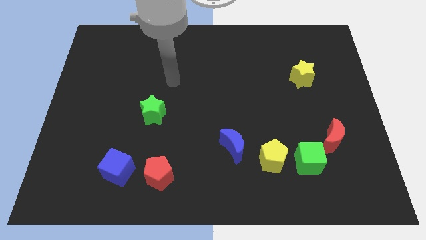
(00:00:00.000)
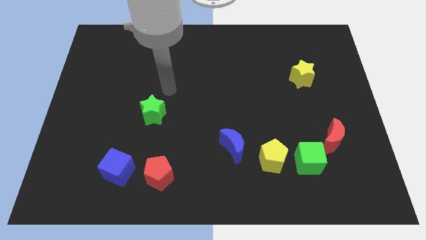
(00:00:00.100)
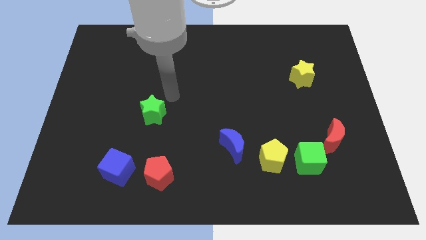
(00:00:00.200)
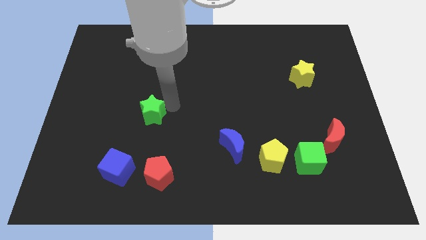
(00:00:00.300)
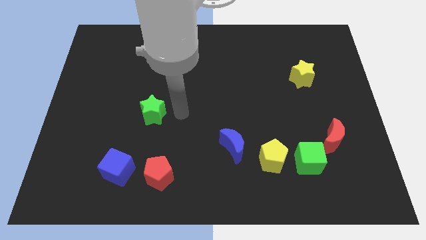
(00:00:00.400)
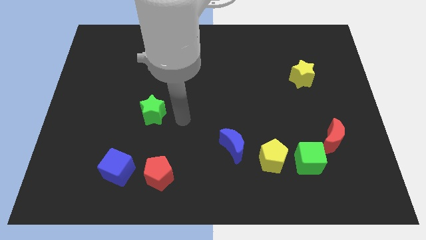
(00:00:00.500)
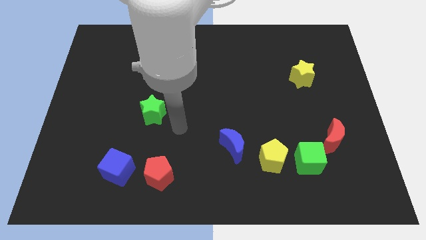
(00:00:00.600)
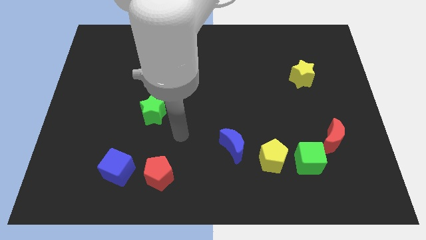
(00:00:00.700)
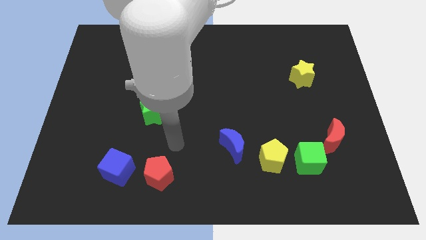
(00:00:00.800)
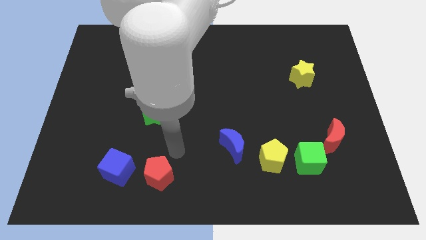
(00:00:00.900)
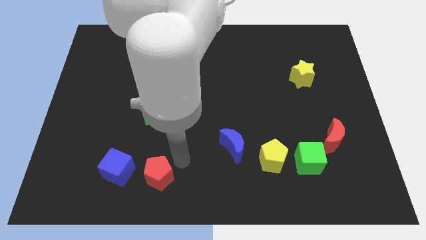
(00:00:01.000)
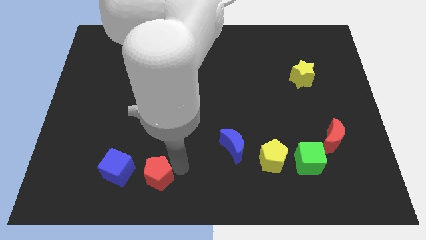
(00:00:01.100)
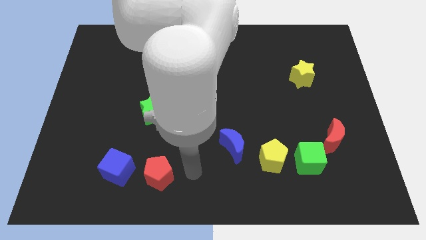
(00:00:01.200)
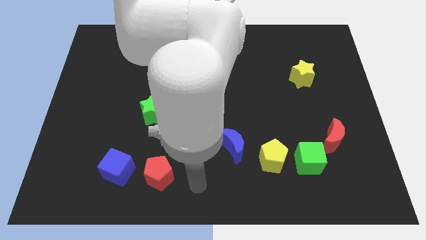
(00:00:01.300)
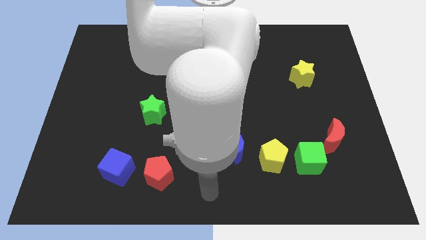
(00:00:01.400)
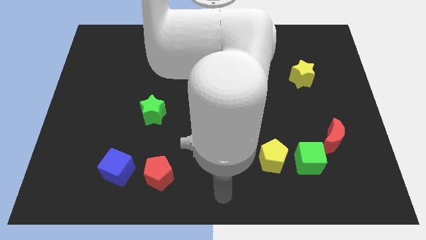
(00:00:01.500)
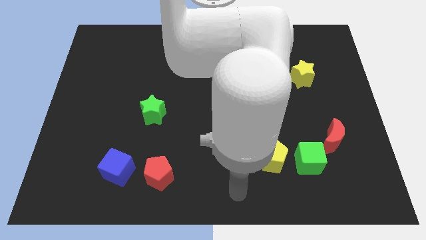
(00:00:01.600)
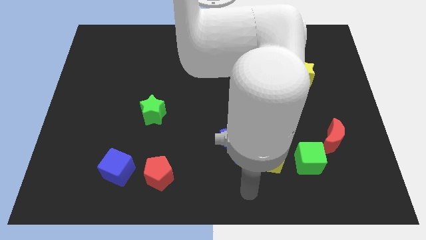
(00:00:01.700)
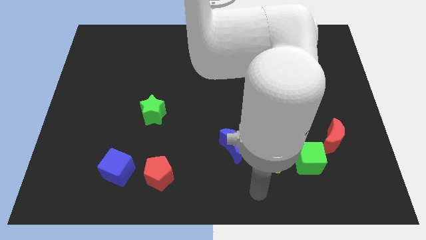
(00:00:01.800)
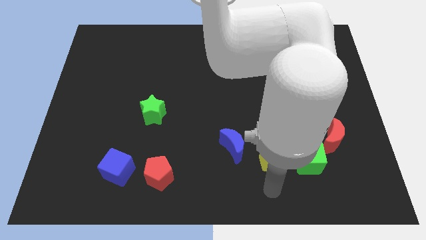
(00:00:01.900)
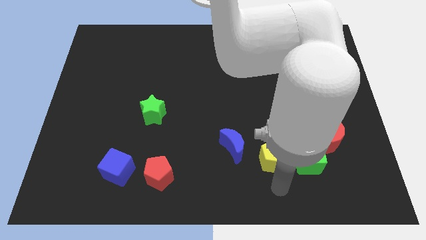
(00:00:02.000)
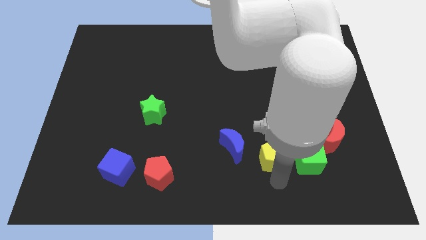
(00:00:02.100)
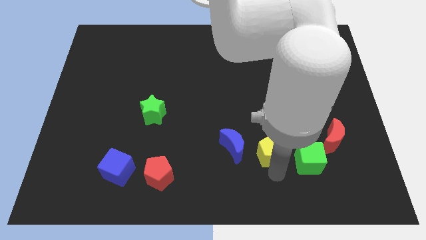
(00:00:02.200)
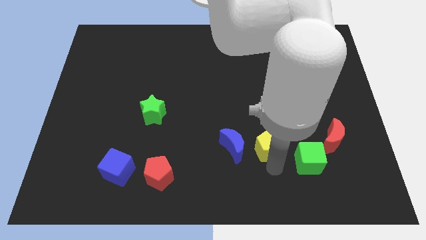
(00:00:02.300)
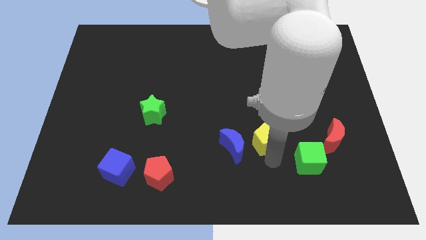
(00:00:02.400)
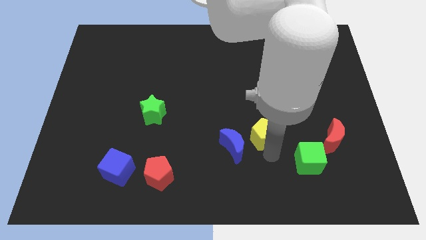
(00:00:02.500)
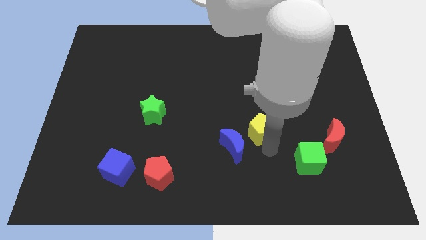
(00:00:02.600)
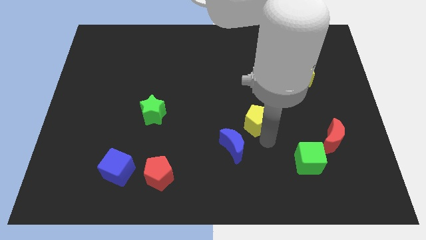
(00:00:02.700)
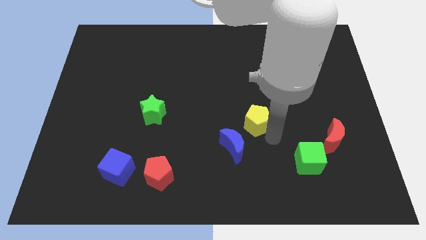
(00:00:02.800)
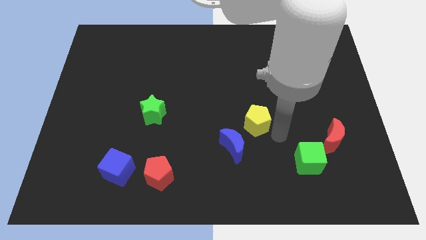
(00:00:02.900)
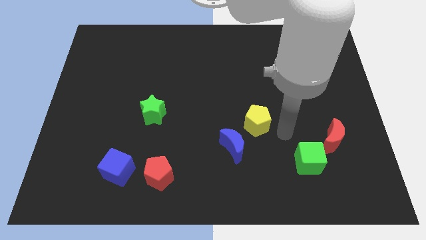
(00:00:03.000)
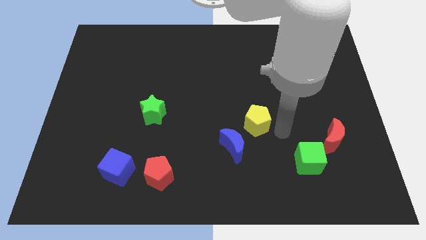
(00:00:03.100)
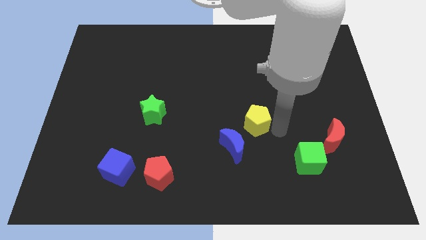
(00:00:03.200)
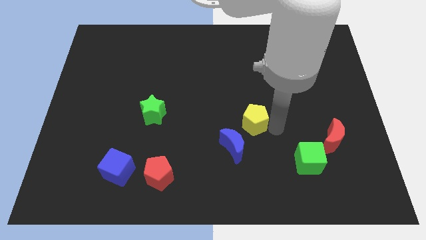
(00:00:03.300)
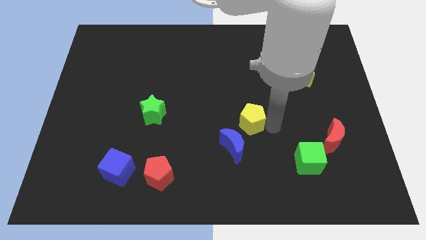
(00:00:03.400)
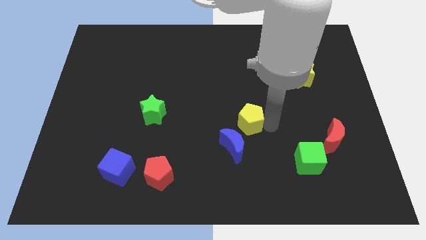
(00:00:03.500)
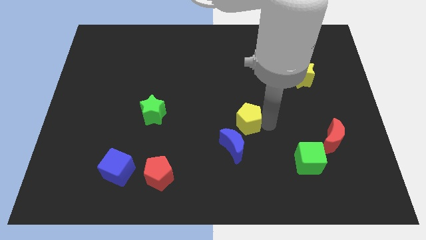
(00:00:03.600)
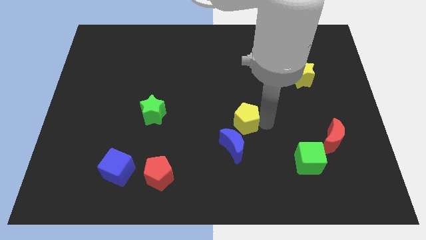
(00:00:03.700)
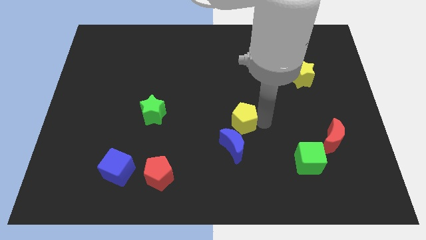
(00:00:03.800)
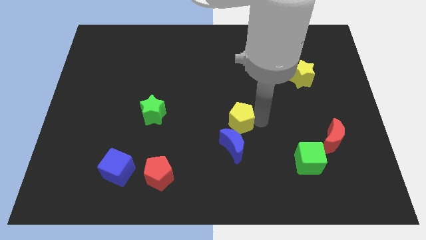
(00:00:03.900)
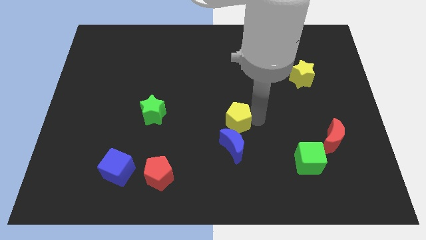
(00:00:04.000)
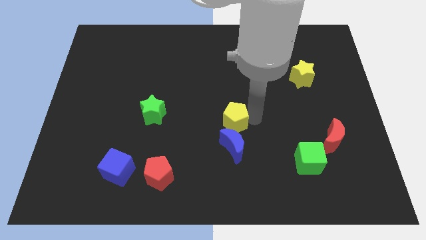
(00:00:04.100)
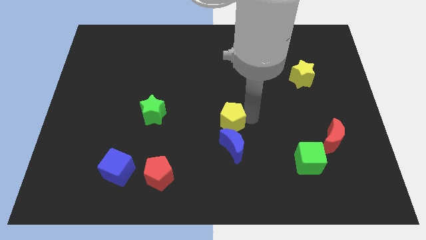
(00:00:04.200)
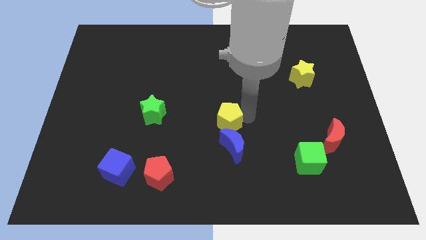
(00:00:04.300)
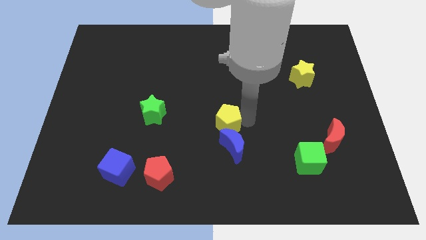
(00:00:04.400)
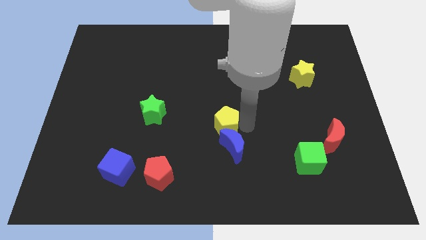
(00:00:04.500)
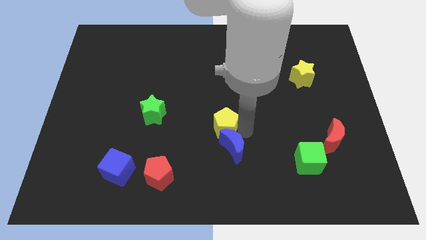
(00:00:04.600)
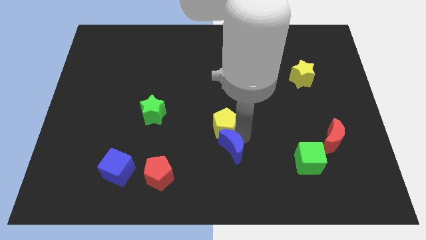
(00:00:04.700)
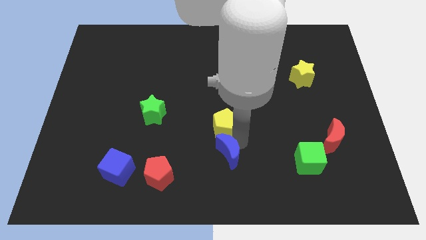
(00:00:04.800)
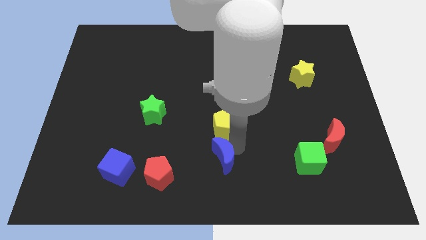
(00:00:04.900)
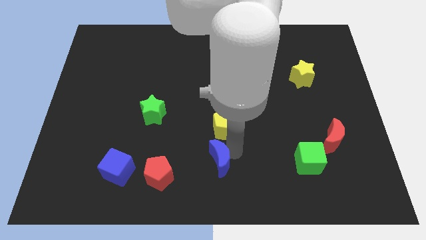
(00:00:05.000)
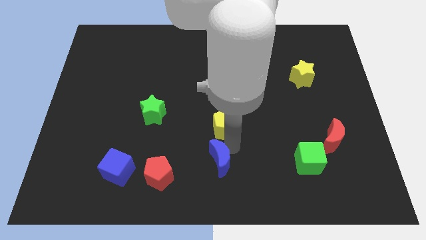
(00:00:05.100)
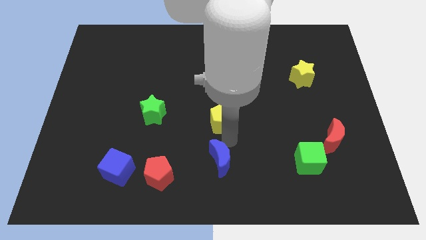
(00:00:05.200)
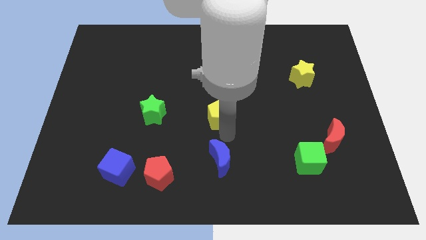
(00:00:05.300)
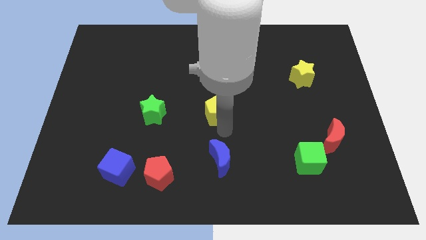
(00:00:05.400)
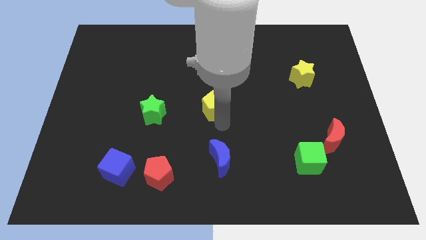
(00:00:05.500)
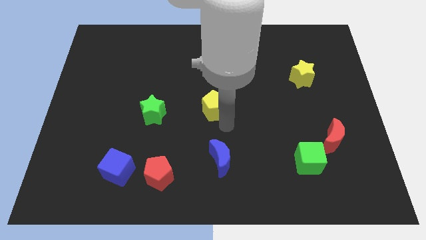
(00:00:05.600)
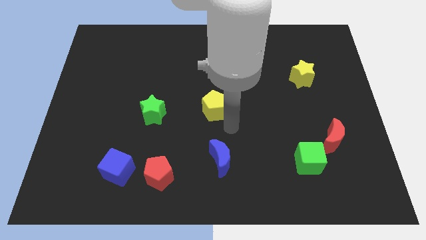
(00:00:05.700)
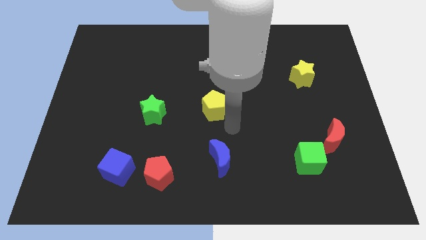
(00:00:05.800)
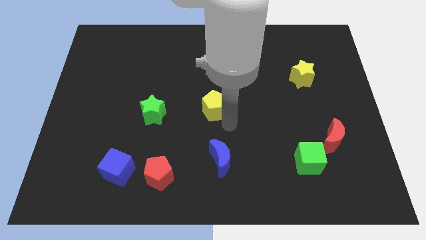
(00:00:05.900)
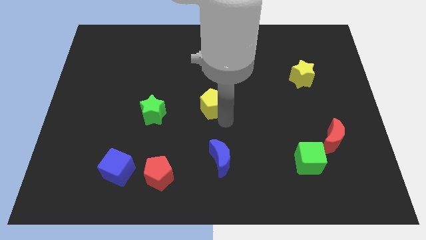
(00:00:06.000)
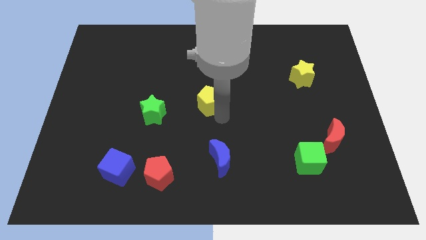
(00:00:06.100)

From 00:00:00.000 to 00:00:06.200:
move the yellow pentagon upwards and left diagonally

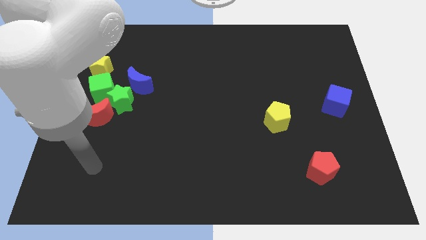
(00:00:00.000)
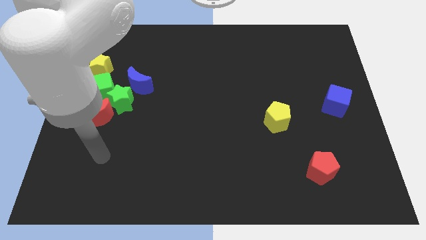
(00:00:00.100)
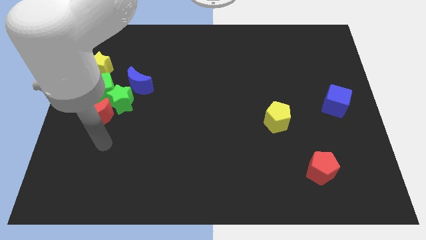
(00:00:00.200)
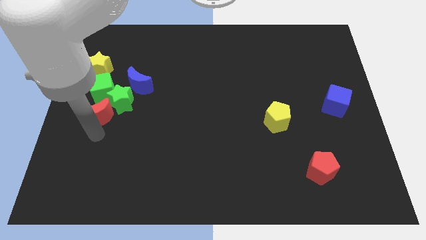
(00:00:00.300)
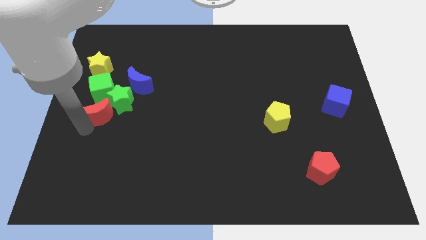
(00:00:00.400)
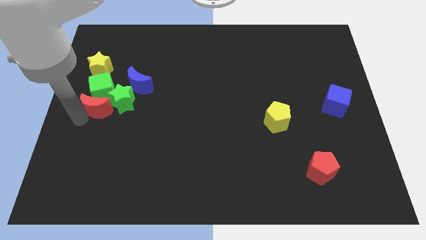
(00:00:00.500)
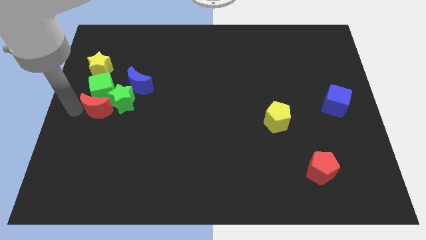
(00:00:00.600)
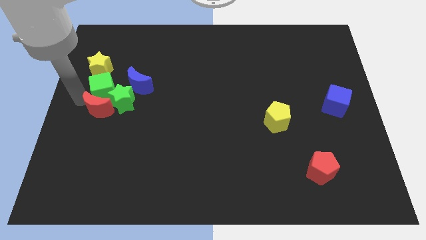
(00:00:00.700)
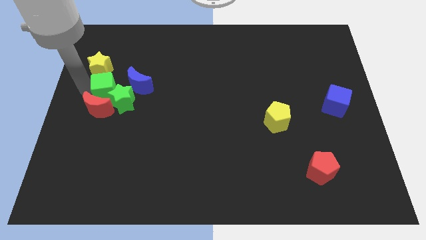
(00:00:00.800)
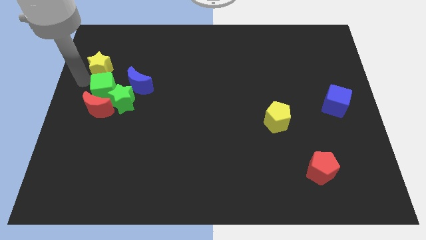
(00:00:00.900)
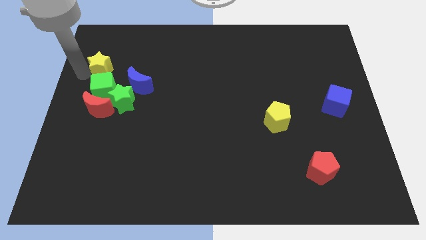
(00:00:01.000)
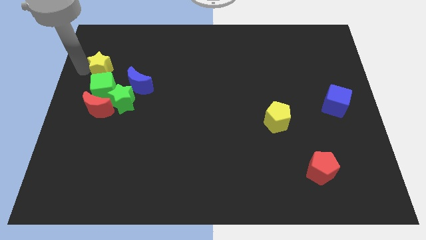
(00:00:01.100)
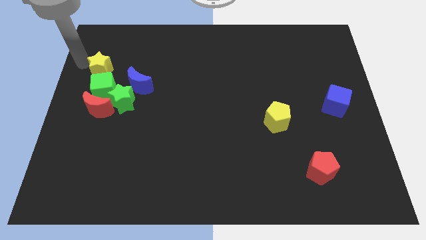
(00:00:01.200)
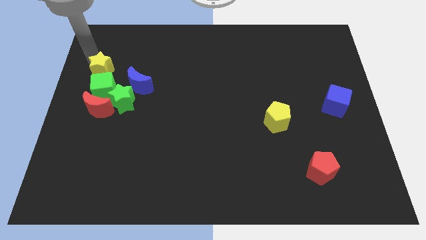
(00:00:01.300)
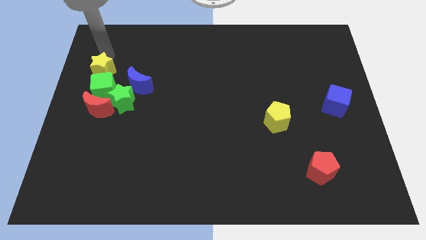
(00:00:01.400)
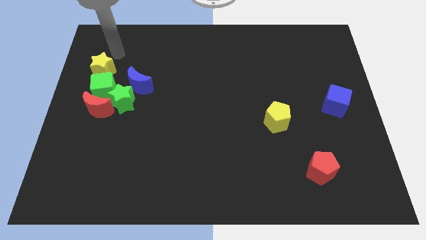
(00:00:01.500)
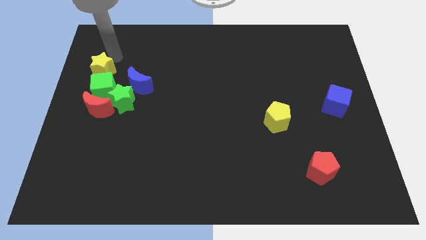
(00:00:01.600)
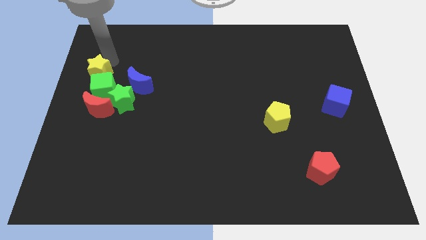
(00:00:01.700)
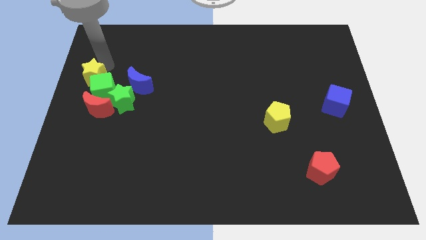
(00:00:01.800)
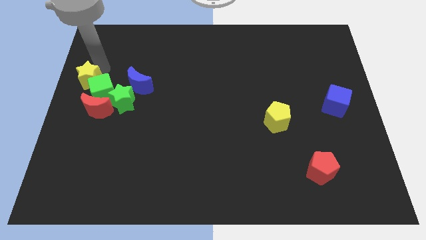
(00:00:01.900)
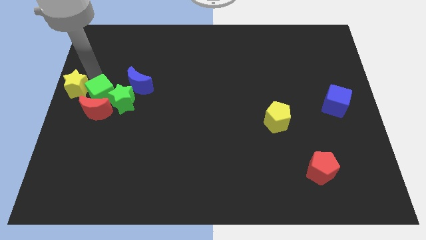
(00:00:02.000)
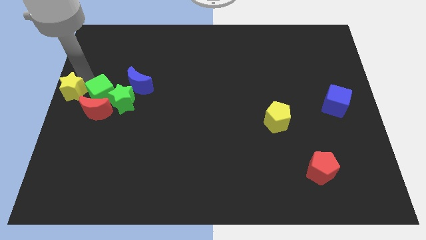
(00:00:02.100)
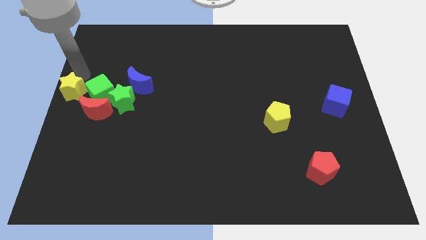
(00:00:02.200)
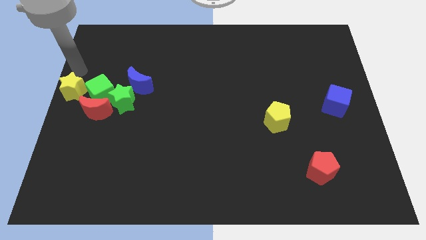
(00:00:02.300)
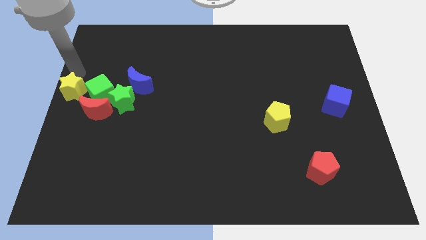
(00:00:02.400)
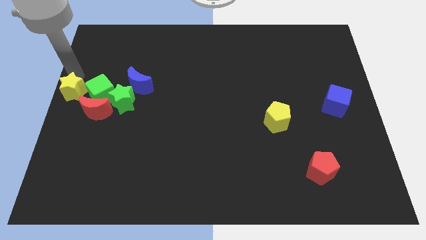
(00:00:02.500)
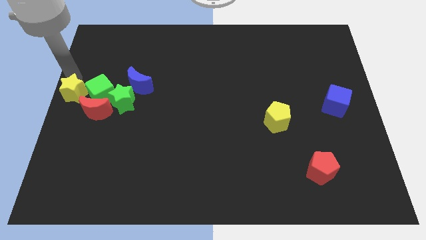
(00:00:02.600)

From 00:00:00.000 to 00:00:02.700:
slide the yellow star down a bit
